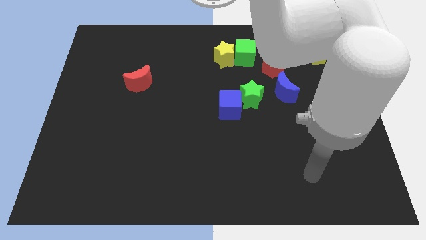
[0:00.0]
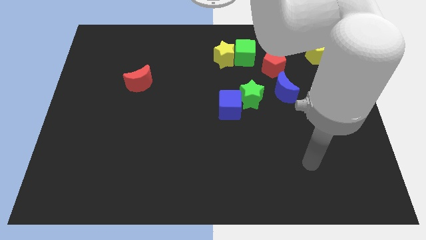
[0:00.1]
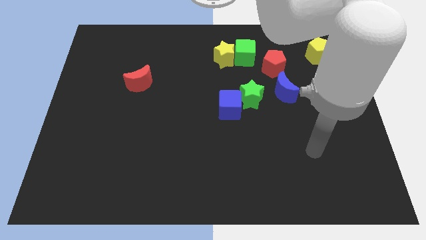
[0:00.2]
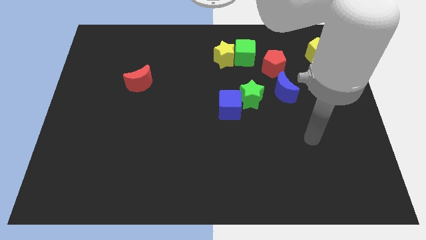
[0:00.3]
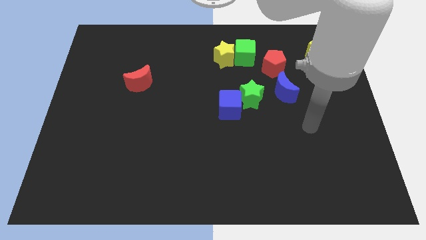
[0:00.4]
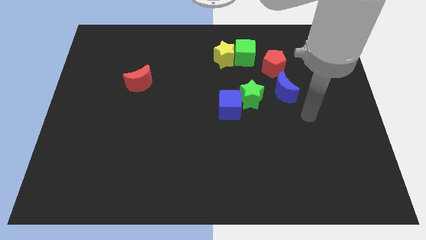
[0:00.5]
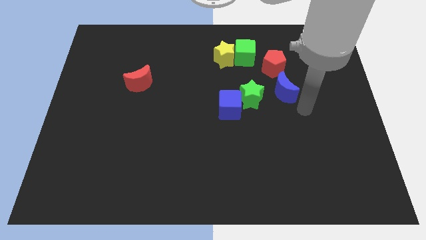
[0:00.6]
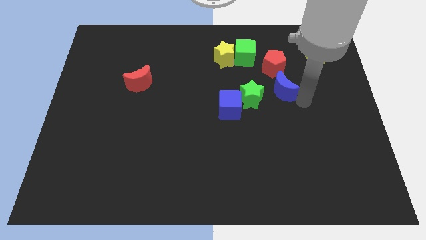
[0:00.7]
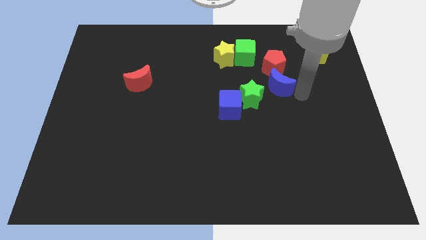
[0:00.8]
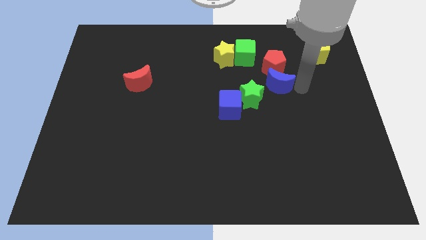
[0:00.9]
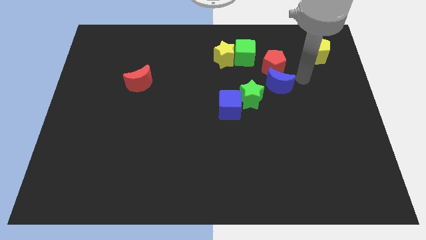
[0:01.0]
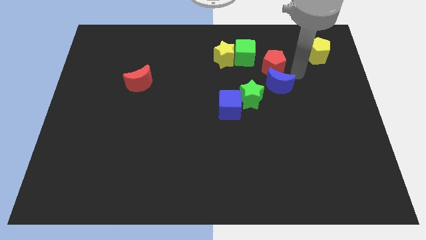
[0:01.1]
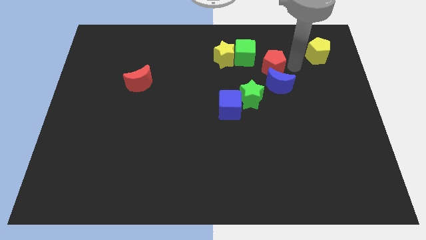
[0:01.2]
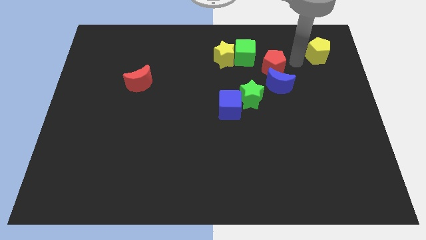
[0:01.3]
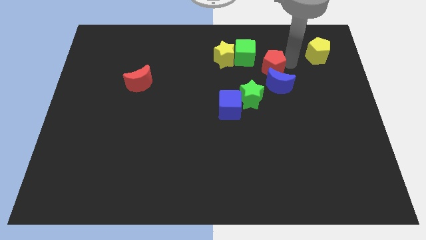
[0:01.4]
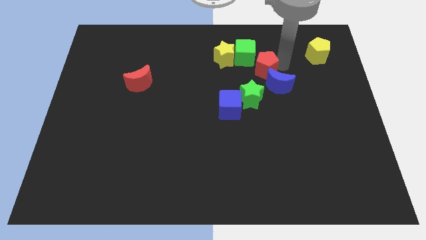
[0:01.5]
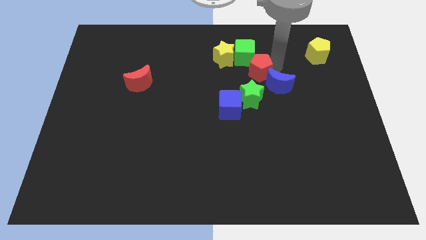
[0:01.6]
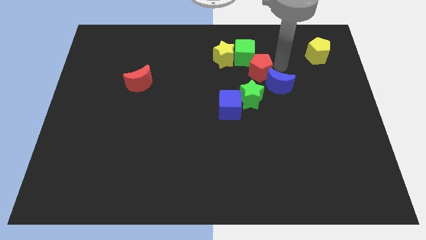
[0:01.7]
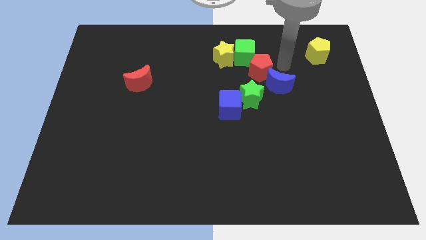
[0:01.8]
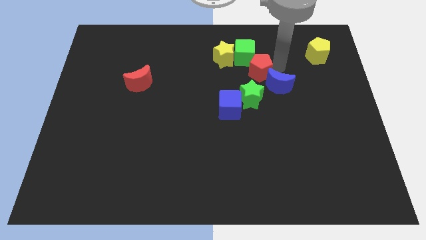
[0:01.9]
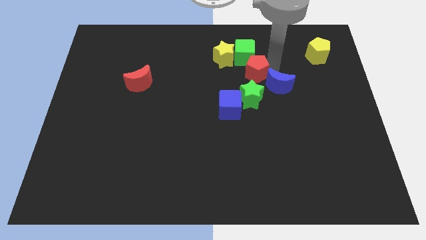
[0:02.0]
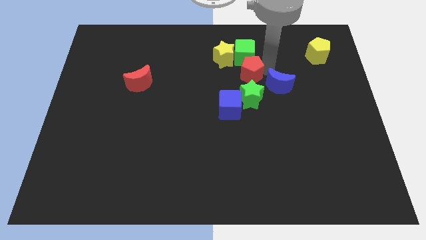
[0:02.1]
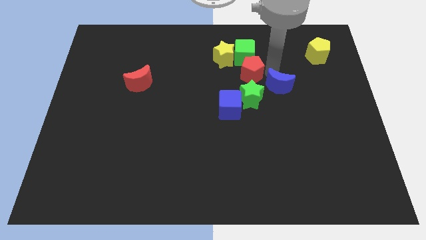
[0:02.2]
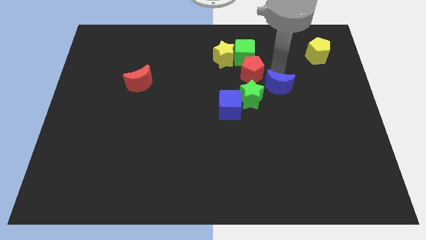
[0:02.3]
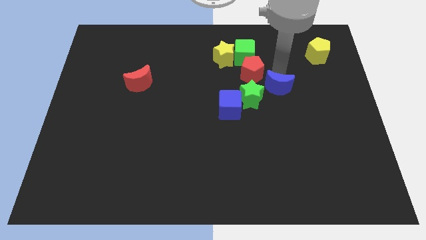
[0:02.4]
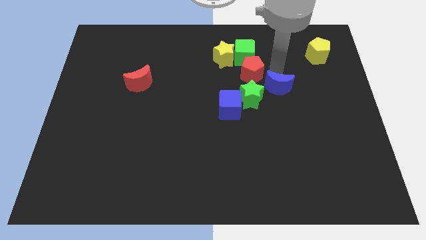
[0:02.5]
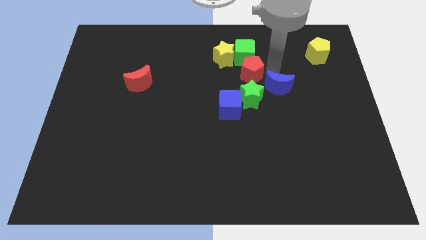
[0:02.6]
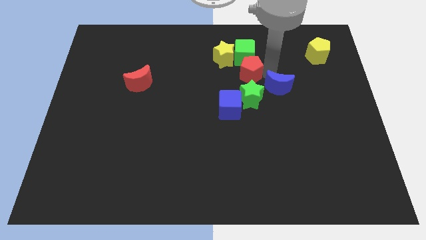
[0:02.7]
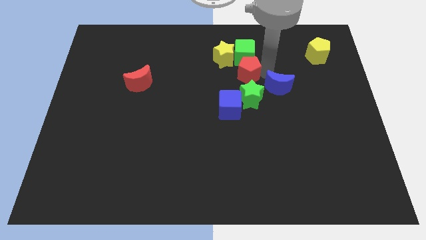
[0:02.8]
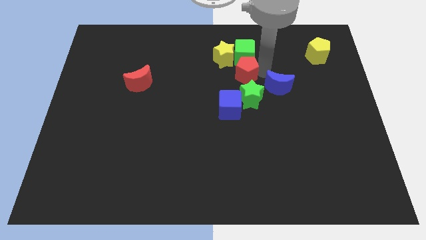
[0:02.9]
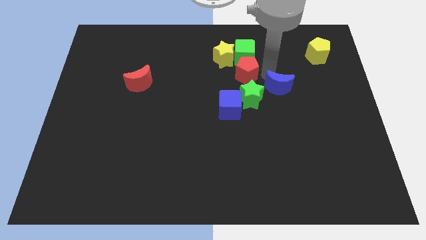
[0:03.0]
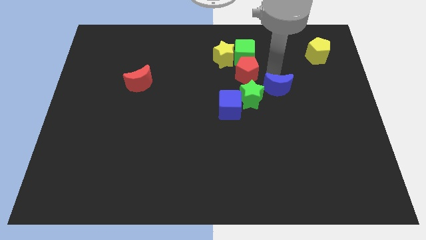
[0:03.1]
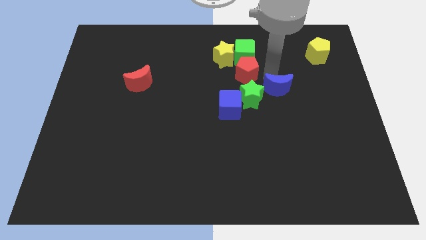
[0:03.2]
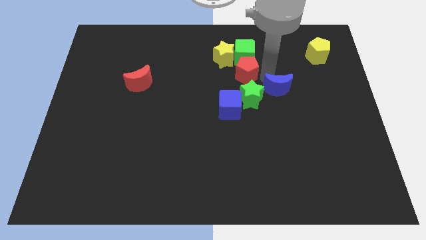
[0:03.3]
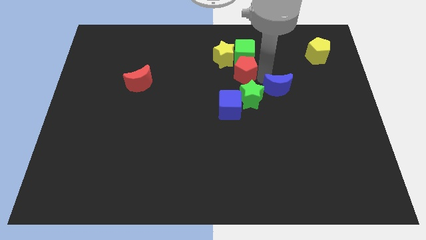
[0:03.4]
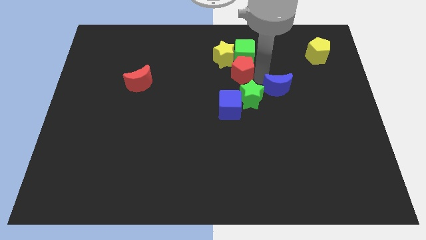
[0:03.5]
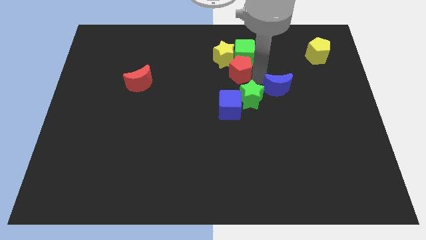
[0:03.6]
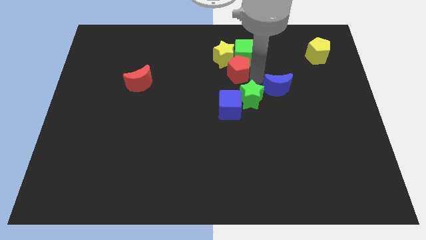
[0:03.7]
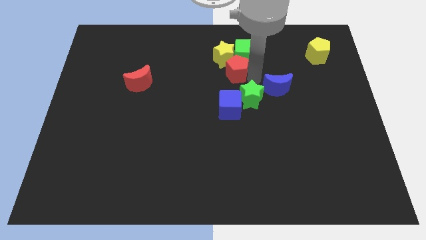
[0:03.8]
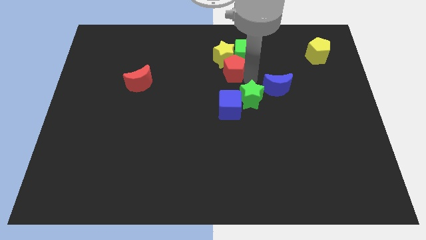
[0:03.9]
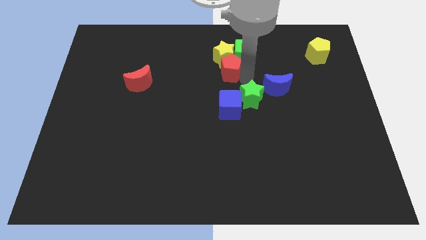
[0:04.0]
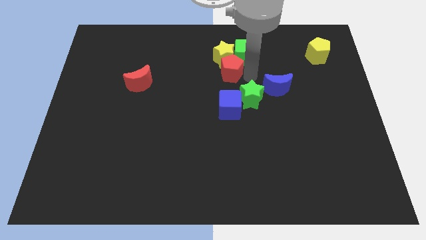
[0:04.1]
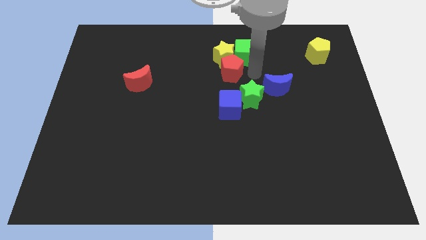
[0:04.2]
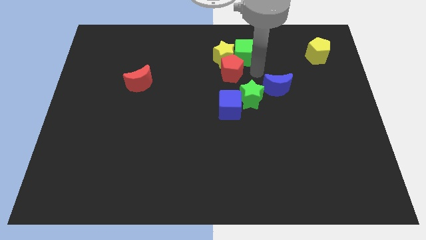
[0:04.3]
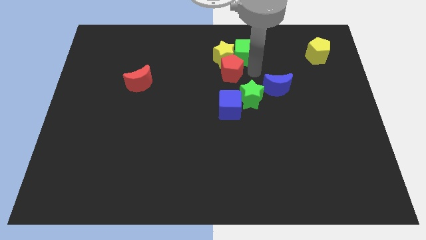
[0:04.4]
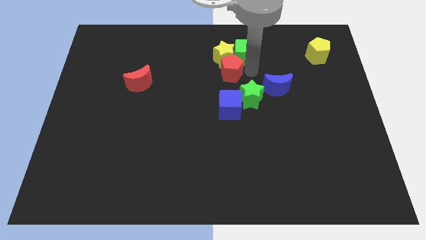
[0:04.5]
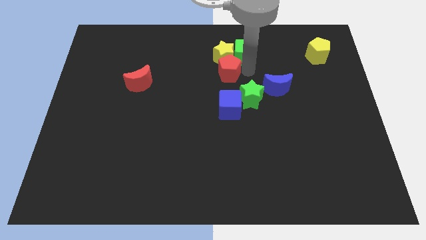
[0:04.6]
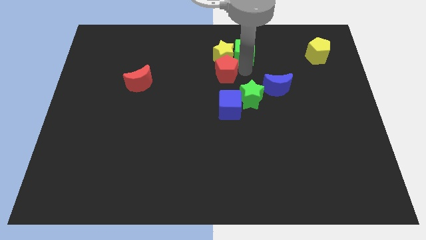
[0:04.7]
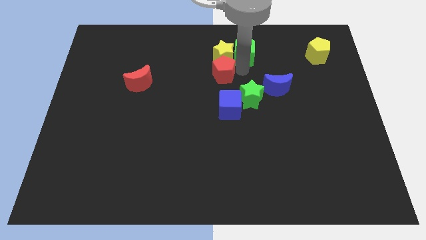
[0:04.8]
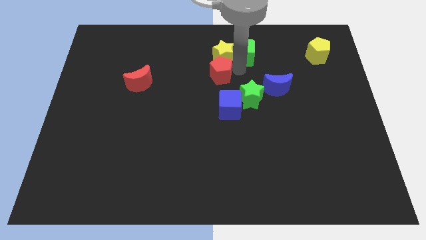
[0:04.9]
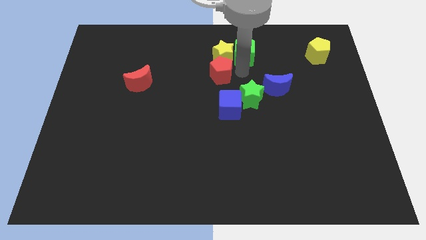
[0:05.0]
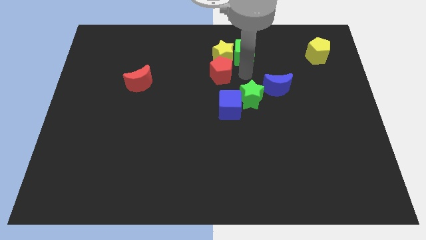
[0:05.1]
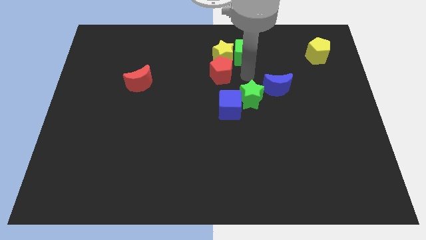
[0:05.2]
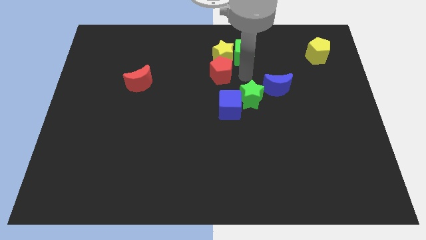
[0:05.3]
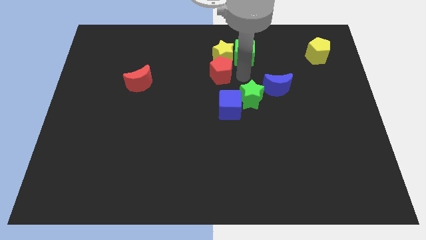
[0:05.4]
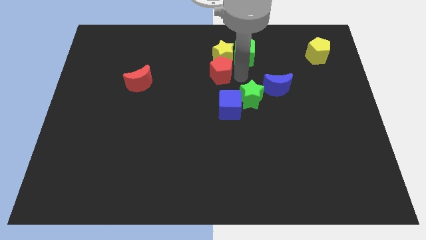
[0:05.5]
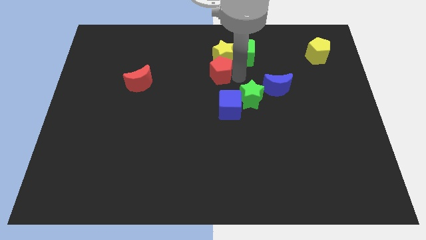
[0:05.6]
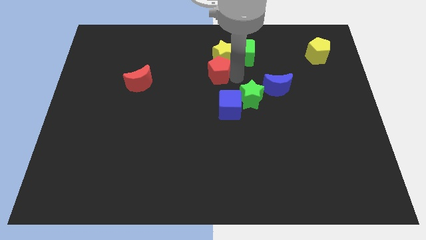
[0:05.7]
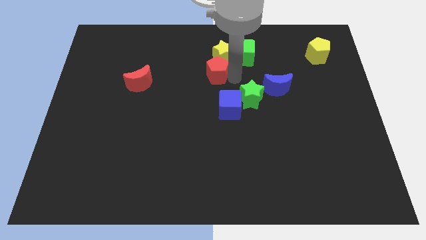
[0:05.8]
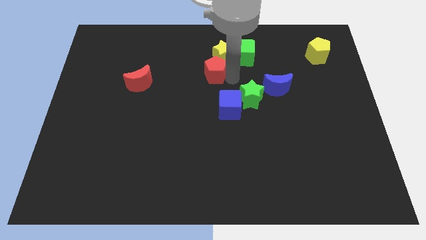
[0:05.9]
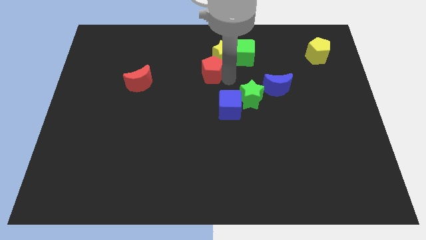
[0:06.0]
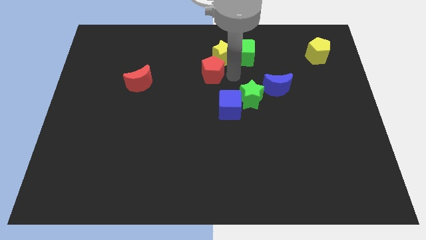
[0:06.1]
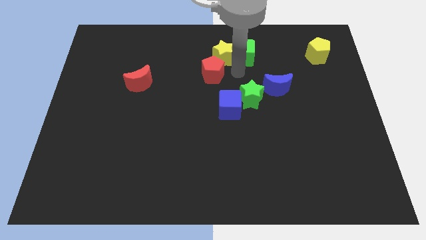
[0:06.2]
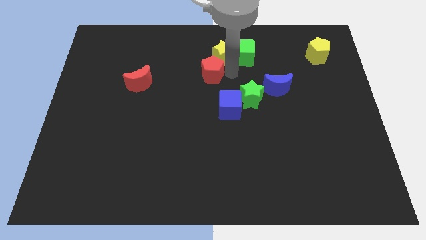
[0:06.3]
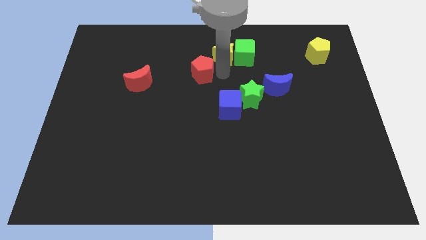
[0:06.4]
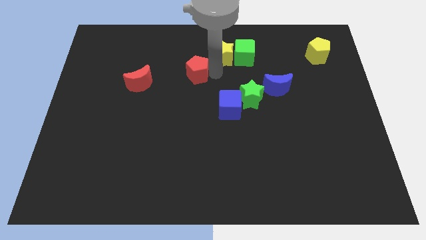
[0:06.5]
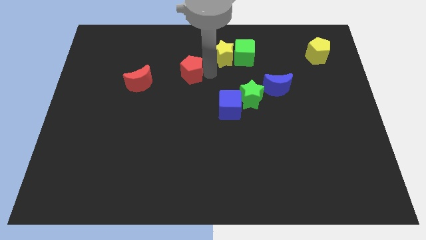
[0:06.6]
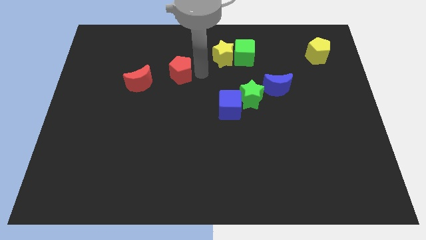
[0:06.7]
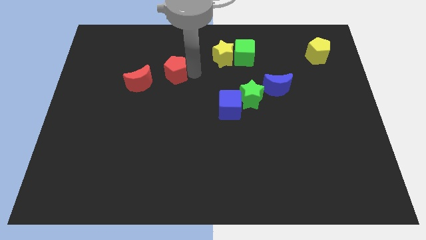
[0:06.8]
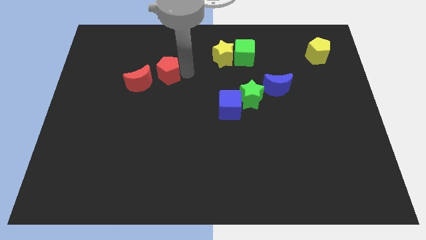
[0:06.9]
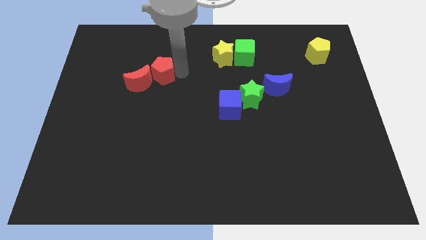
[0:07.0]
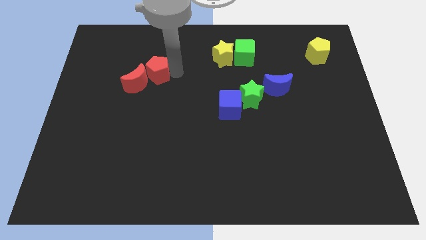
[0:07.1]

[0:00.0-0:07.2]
slide the red pentagon close to the red moon

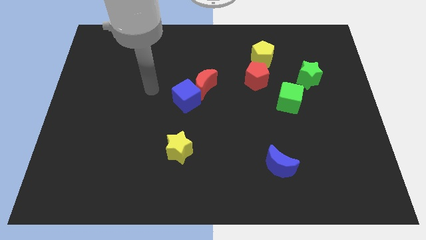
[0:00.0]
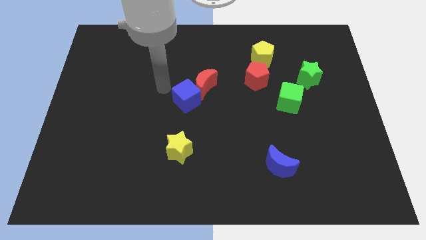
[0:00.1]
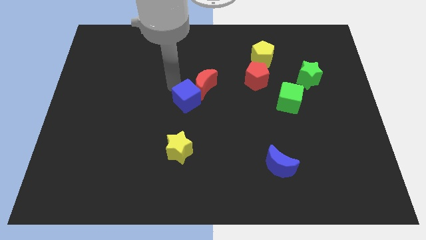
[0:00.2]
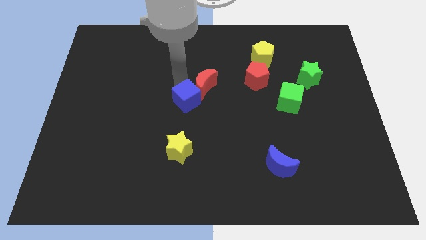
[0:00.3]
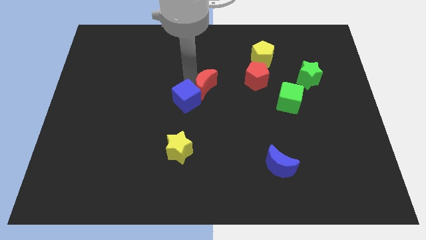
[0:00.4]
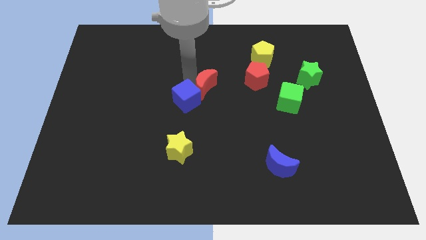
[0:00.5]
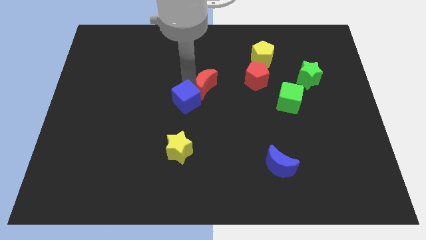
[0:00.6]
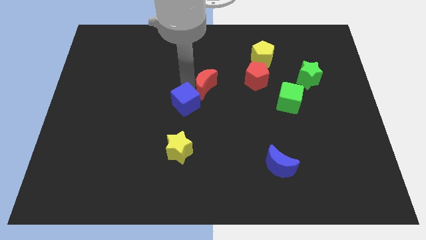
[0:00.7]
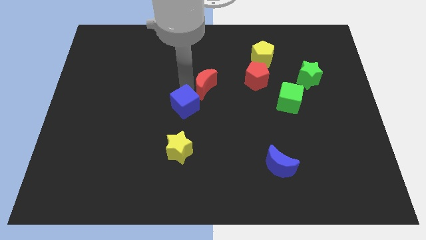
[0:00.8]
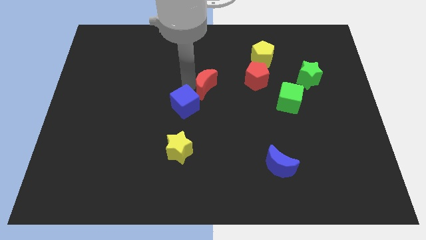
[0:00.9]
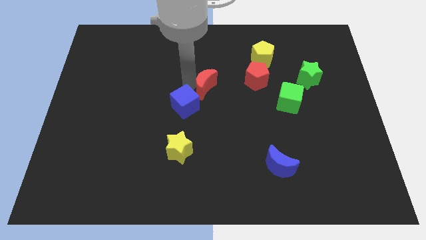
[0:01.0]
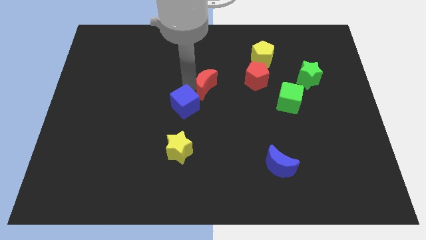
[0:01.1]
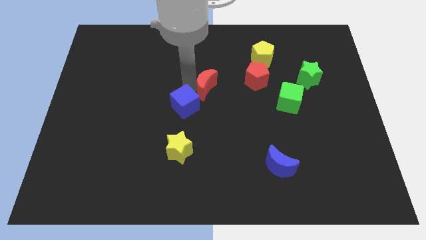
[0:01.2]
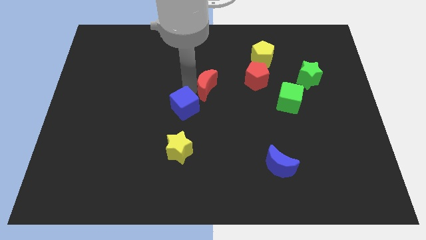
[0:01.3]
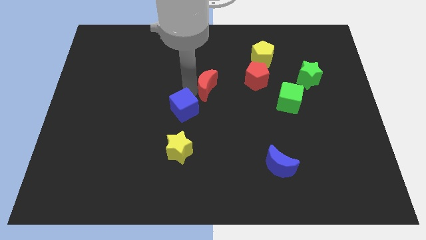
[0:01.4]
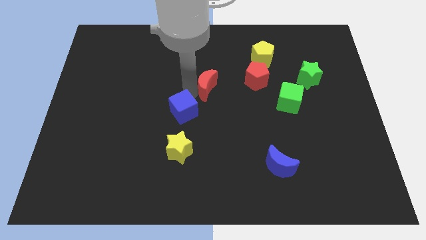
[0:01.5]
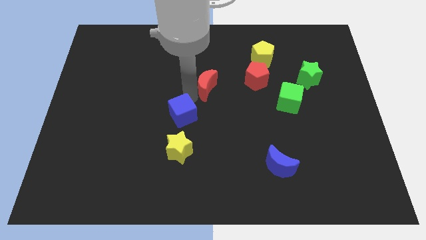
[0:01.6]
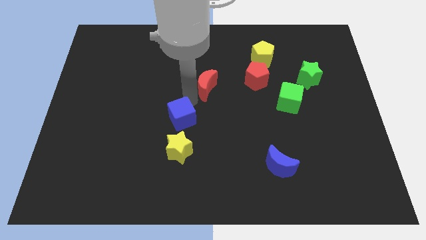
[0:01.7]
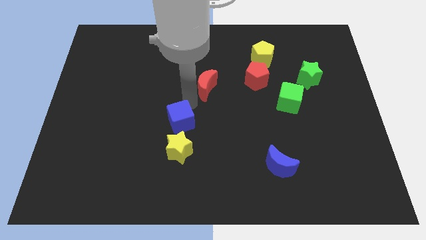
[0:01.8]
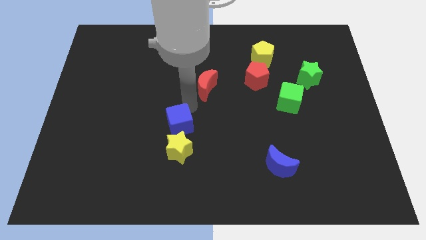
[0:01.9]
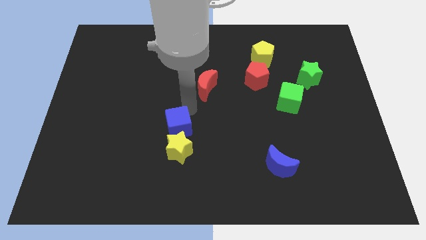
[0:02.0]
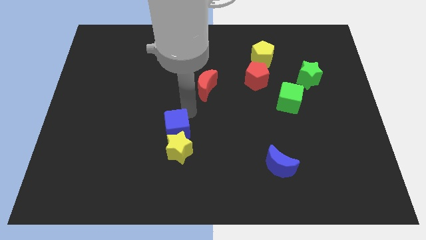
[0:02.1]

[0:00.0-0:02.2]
move the blue cube towards the yellow star
